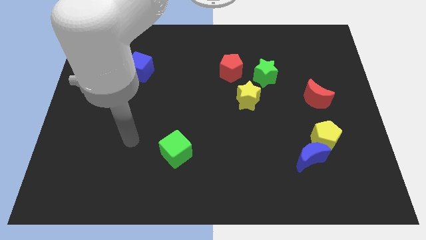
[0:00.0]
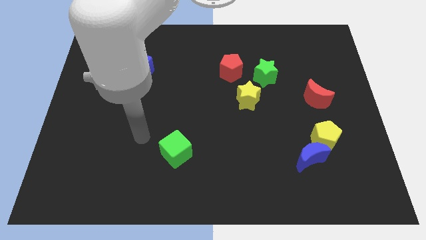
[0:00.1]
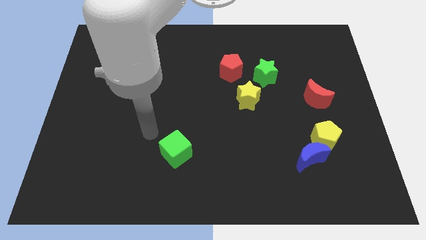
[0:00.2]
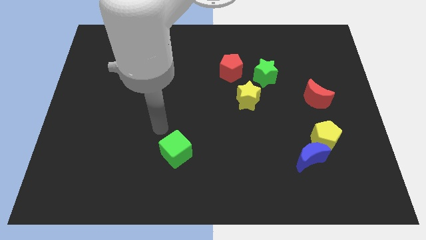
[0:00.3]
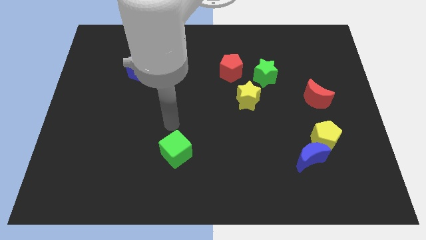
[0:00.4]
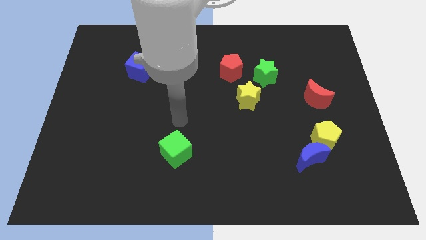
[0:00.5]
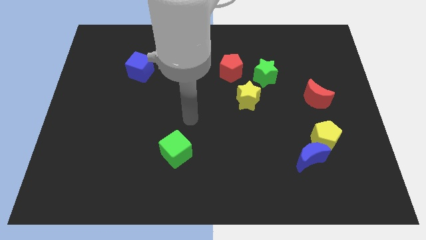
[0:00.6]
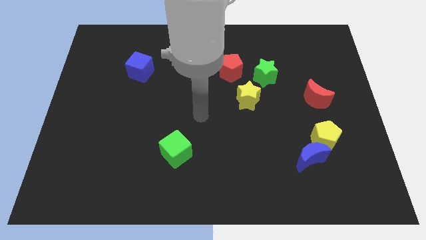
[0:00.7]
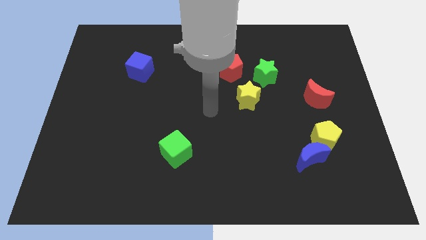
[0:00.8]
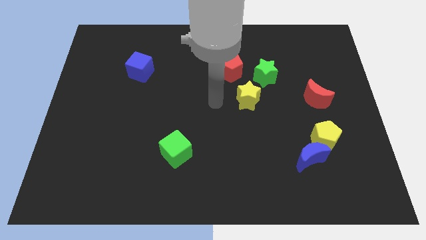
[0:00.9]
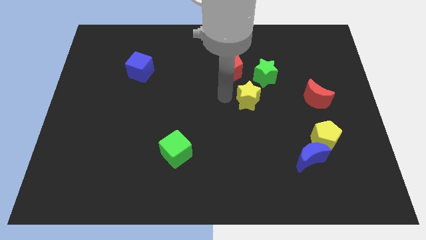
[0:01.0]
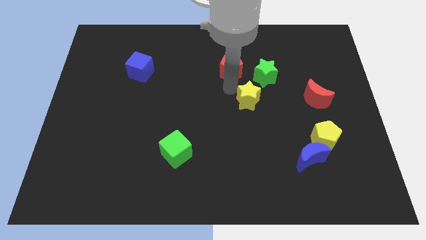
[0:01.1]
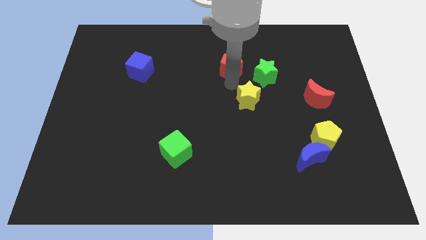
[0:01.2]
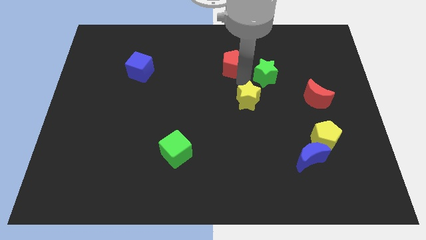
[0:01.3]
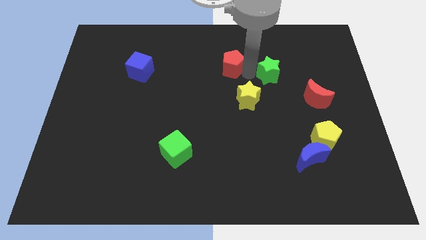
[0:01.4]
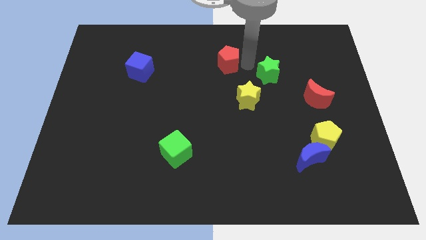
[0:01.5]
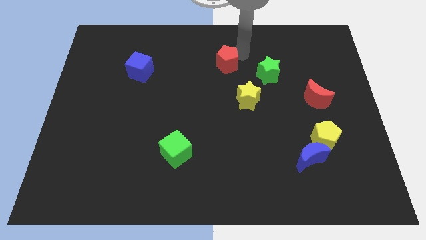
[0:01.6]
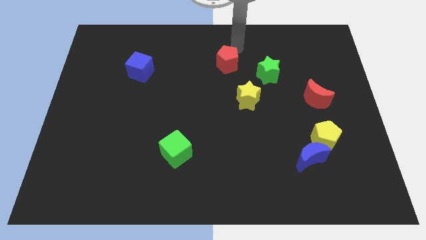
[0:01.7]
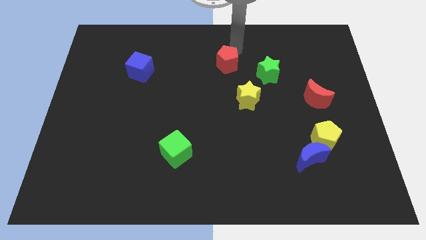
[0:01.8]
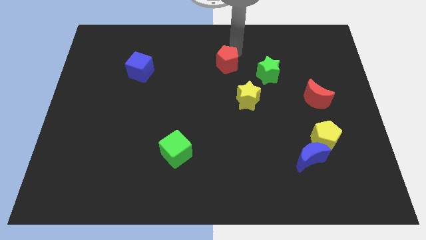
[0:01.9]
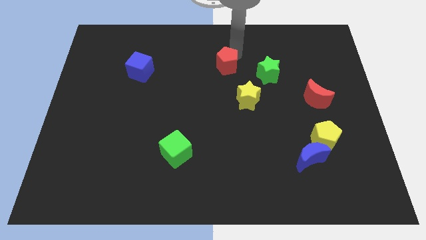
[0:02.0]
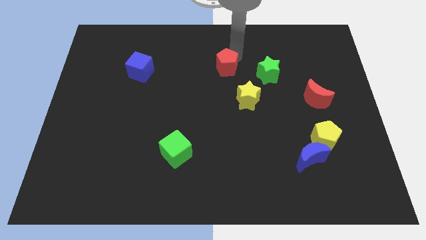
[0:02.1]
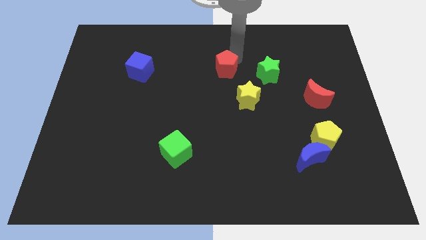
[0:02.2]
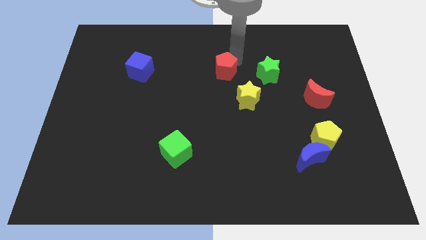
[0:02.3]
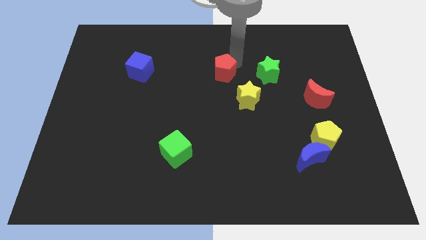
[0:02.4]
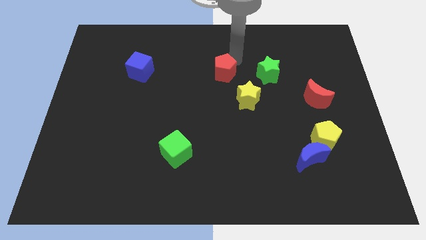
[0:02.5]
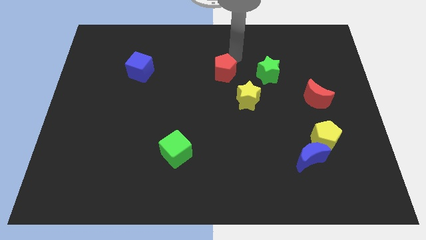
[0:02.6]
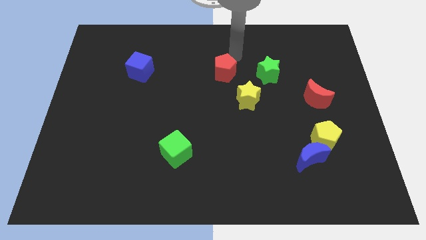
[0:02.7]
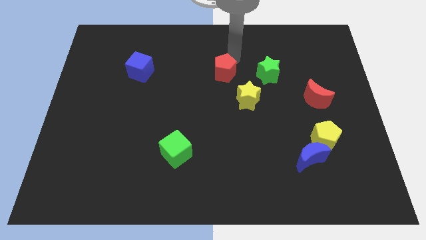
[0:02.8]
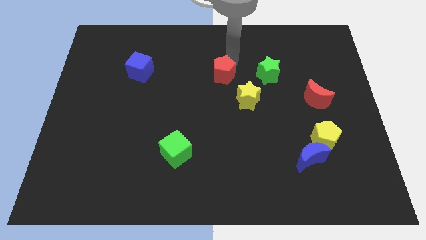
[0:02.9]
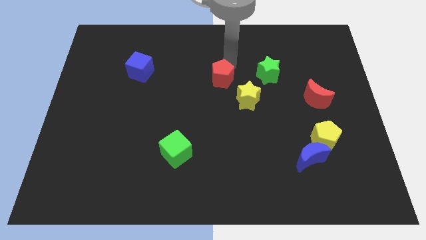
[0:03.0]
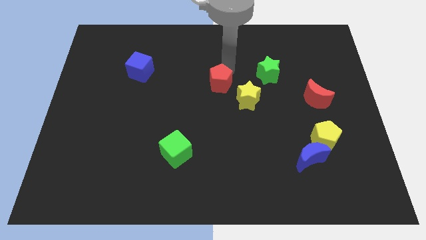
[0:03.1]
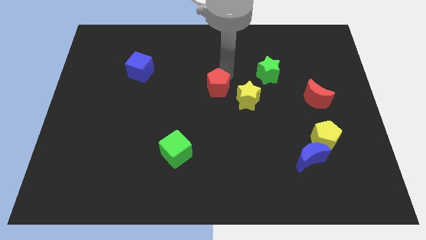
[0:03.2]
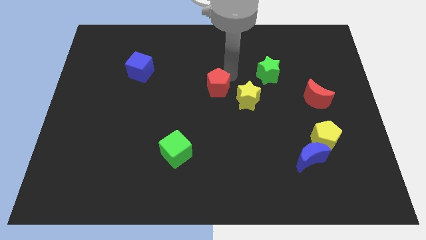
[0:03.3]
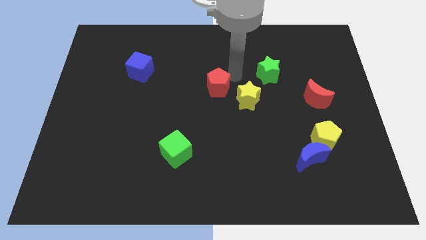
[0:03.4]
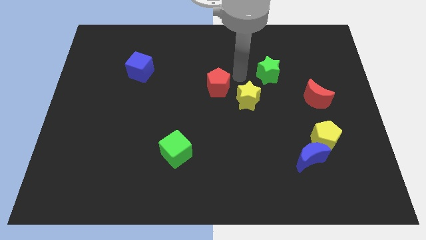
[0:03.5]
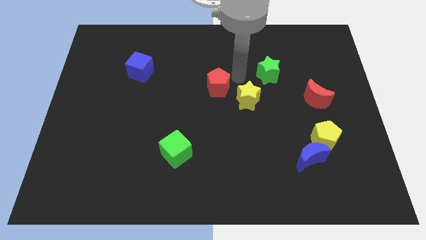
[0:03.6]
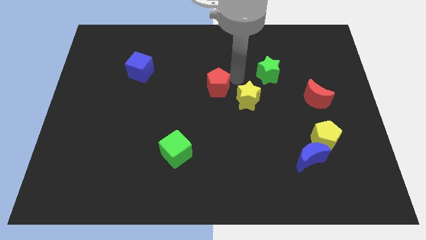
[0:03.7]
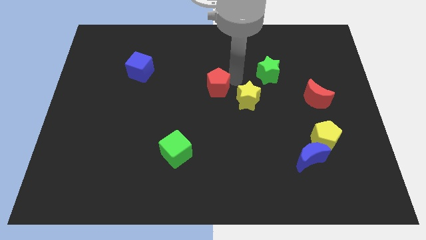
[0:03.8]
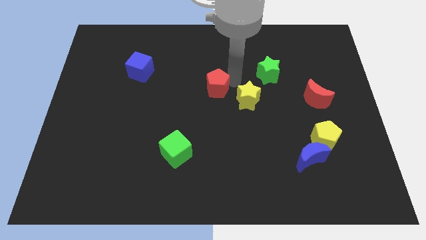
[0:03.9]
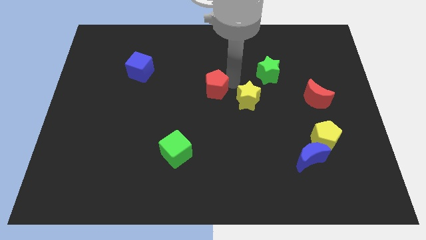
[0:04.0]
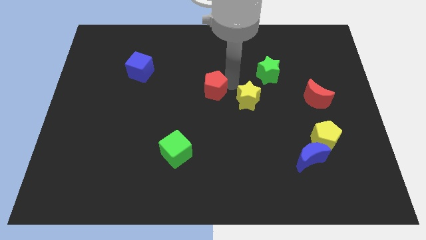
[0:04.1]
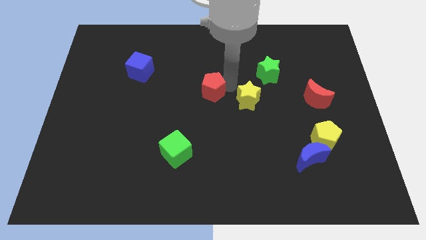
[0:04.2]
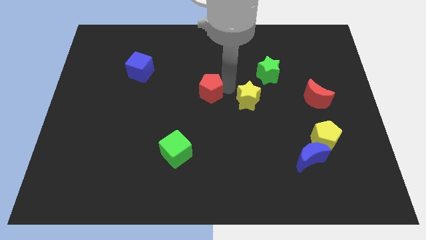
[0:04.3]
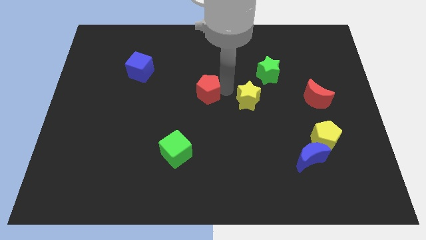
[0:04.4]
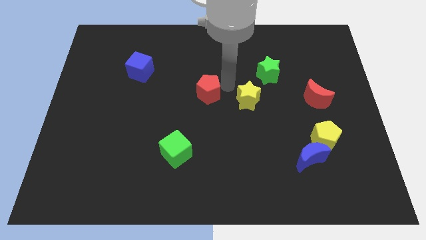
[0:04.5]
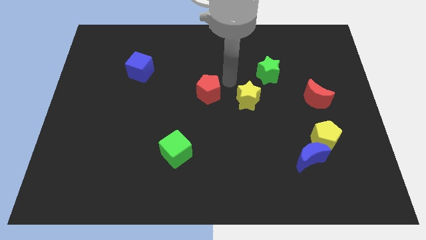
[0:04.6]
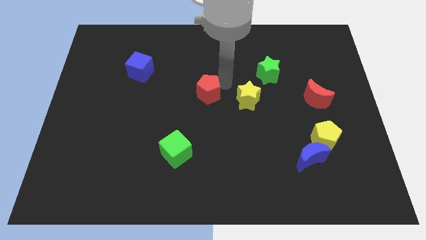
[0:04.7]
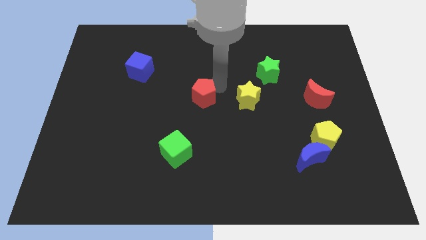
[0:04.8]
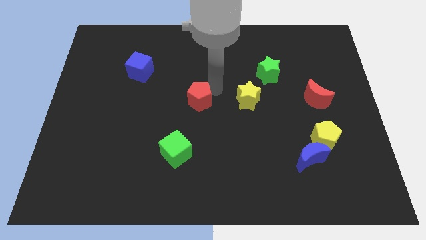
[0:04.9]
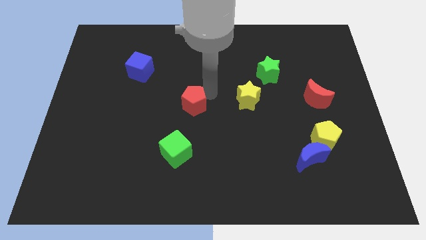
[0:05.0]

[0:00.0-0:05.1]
put the red pentagon above the green cube

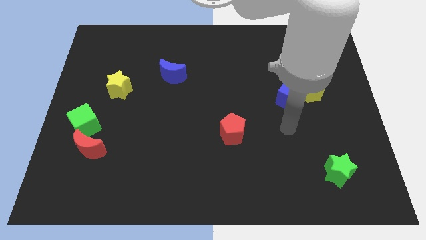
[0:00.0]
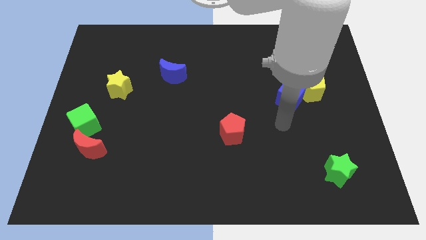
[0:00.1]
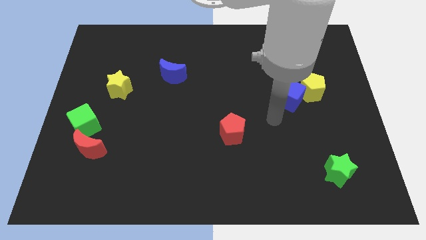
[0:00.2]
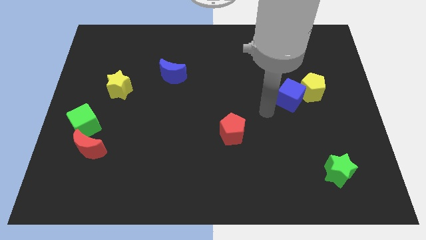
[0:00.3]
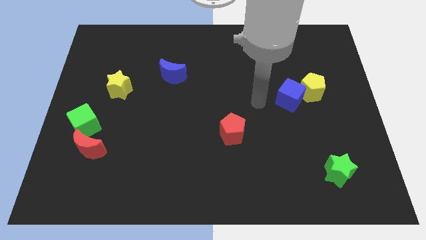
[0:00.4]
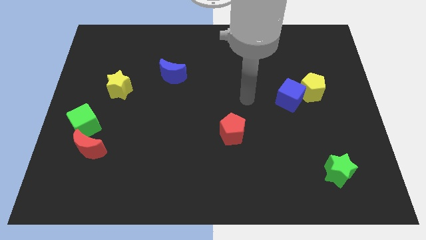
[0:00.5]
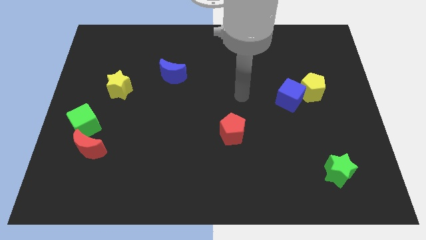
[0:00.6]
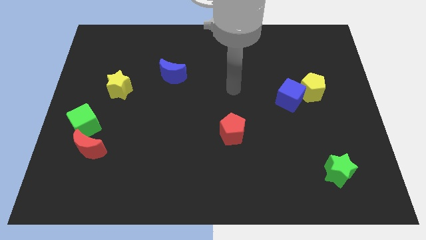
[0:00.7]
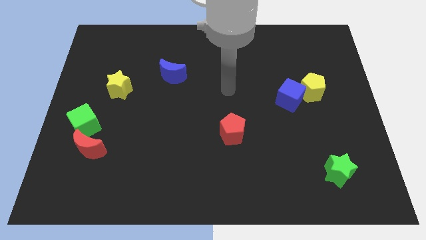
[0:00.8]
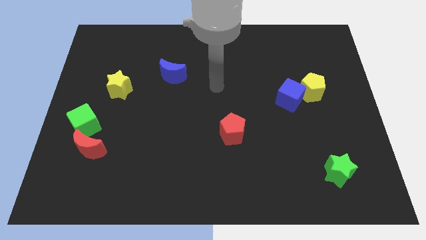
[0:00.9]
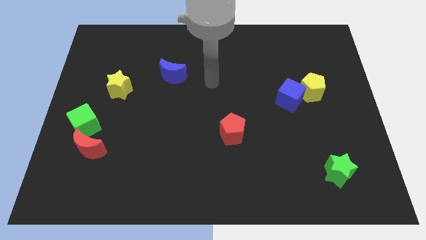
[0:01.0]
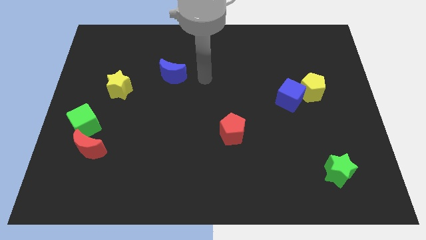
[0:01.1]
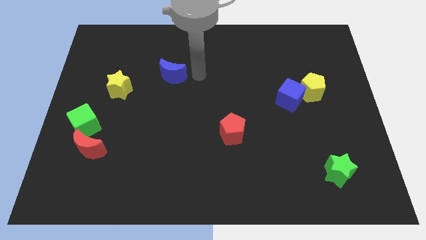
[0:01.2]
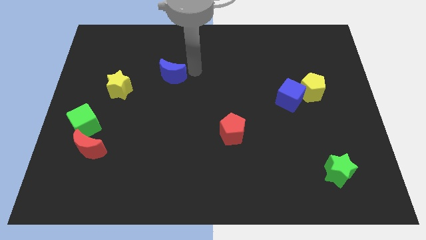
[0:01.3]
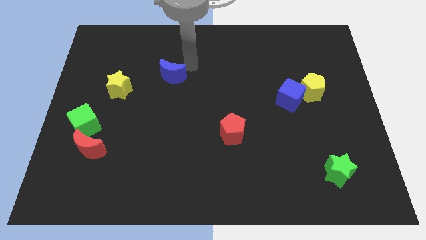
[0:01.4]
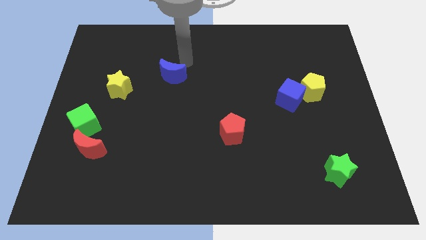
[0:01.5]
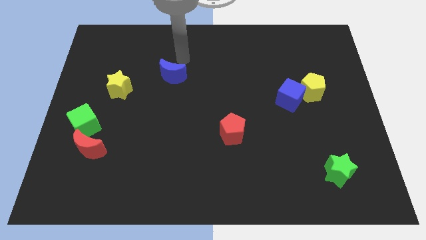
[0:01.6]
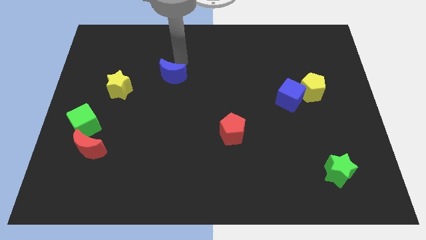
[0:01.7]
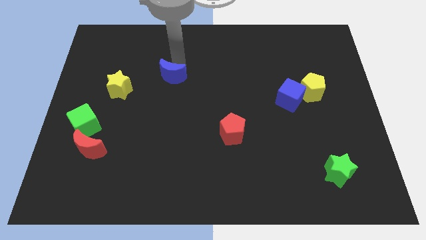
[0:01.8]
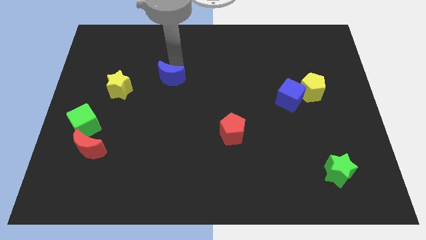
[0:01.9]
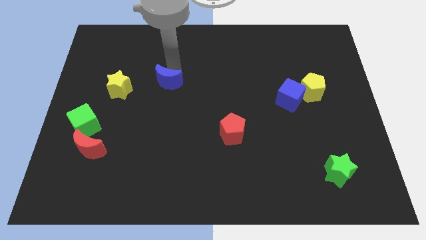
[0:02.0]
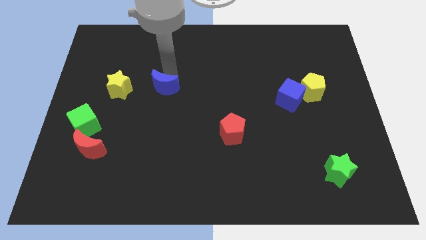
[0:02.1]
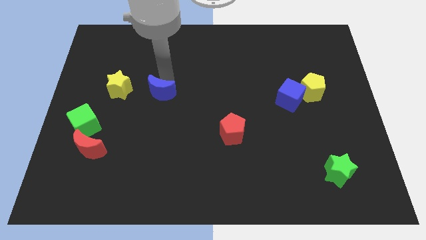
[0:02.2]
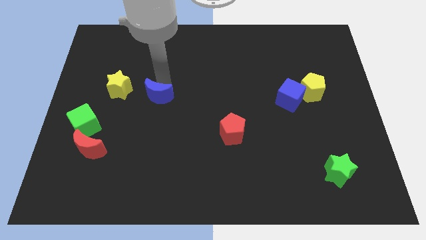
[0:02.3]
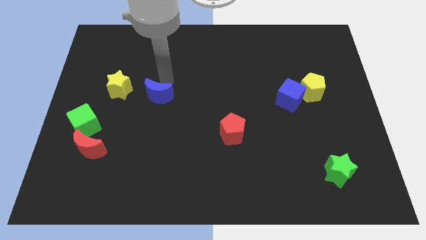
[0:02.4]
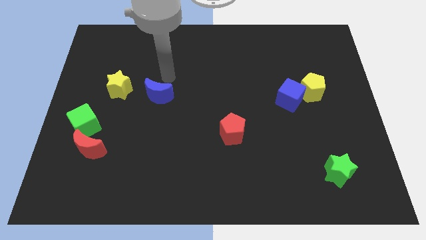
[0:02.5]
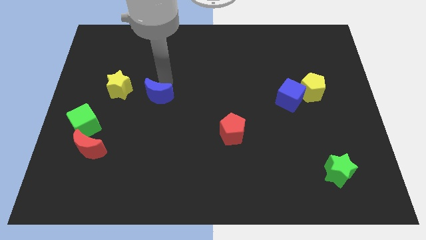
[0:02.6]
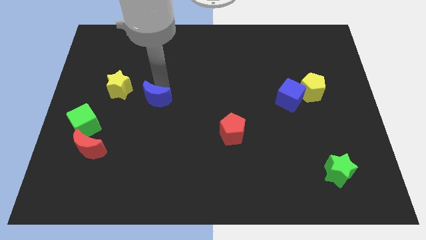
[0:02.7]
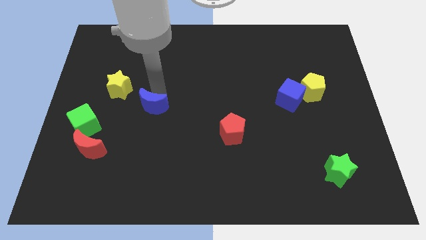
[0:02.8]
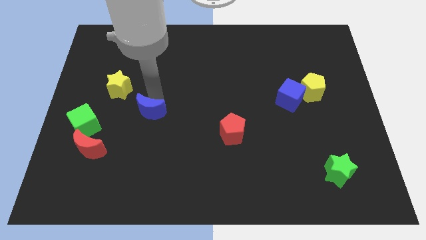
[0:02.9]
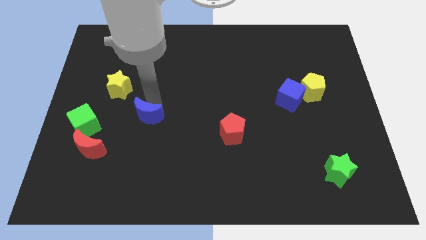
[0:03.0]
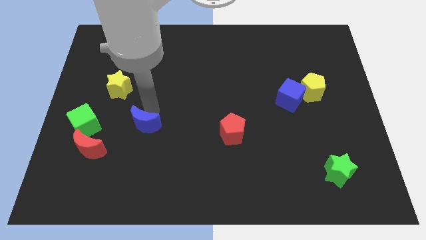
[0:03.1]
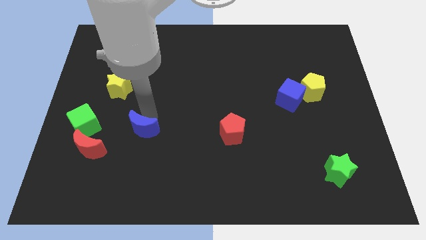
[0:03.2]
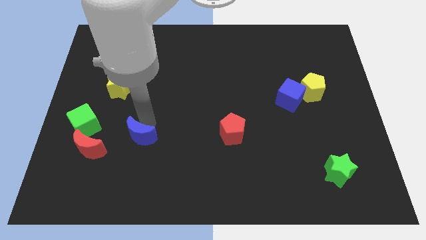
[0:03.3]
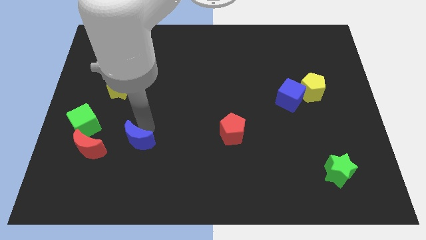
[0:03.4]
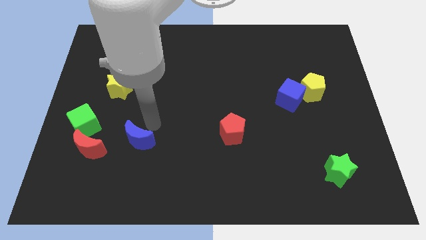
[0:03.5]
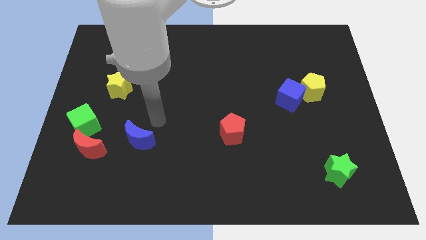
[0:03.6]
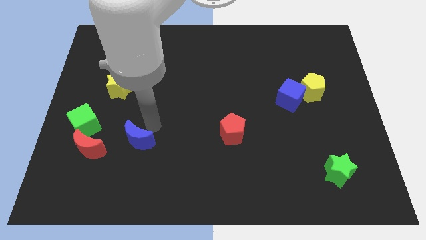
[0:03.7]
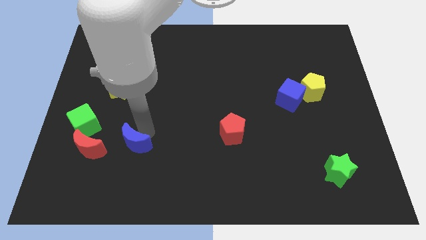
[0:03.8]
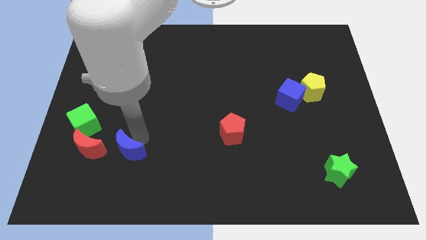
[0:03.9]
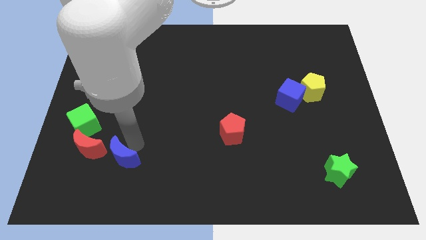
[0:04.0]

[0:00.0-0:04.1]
slide the blue moon to the bottom right side of the red moon
